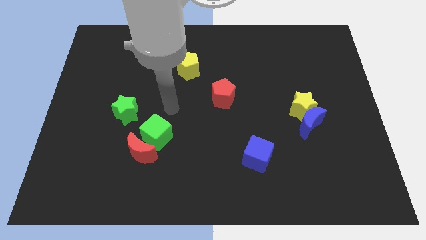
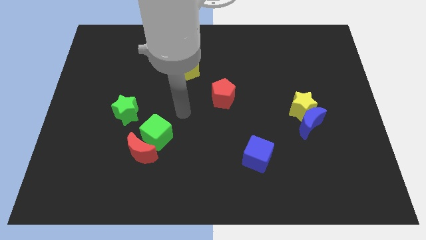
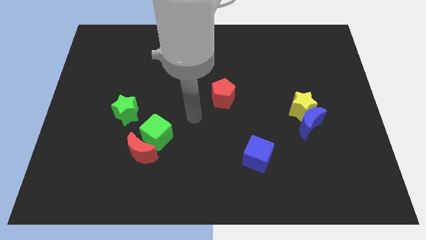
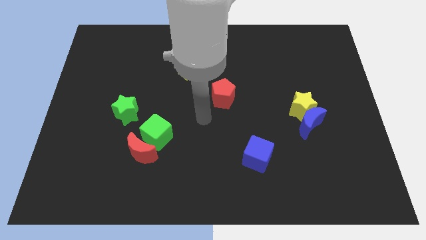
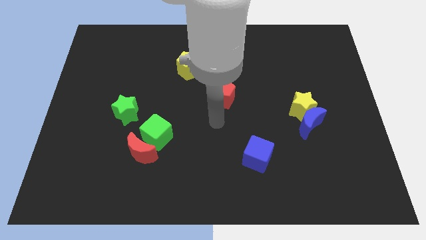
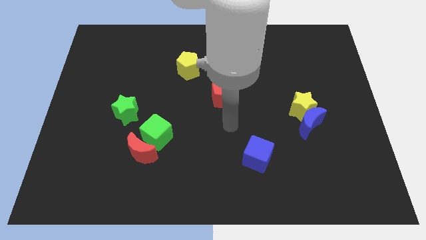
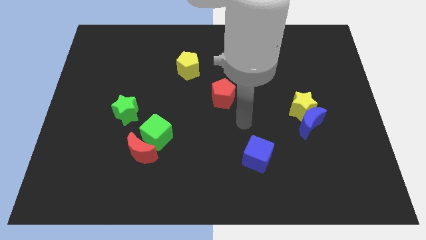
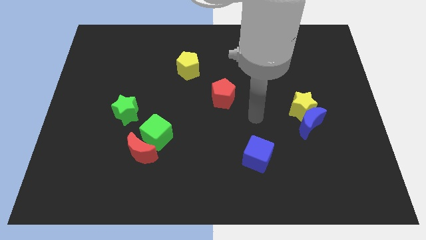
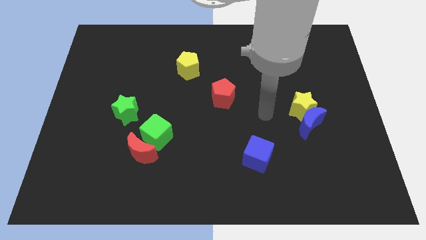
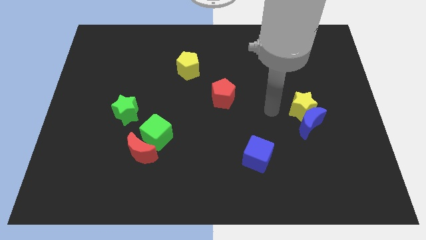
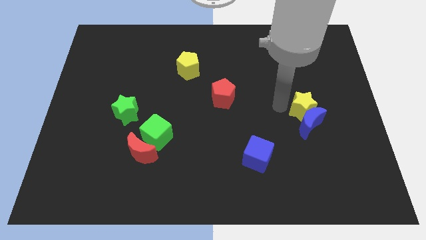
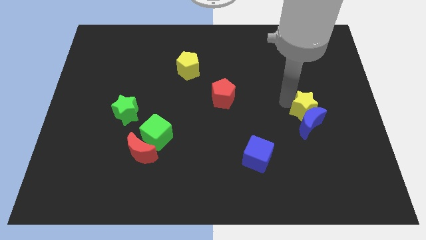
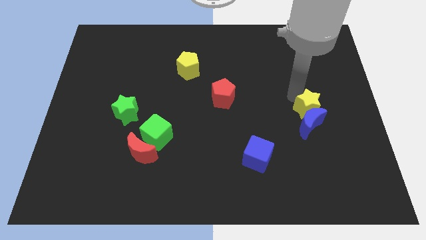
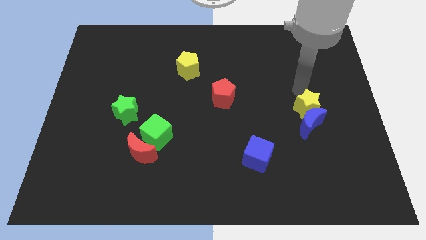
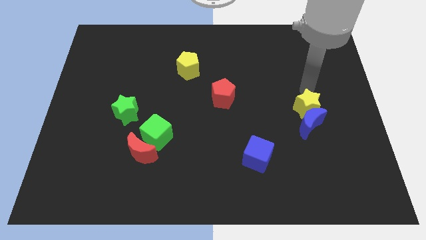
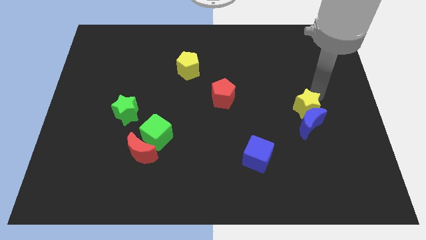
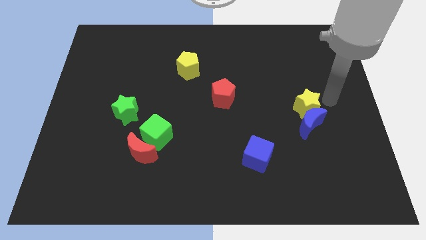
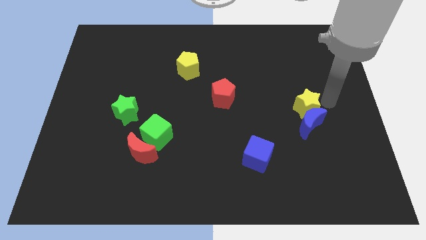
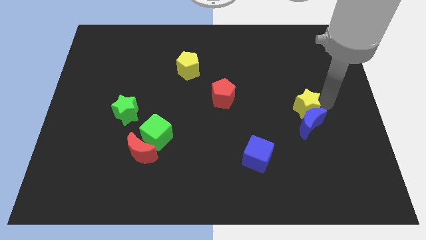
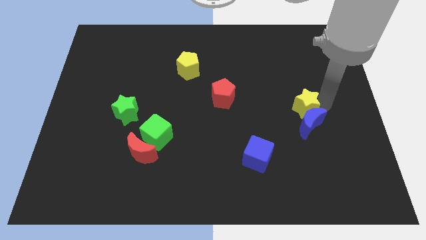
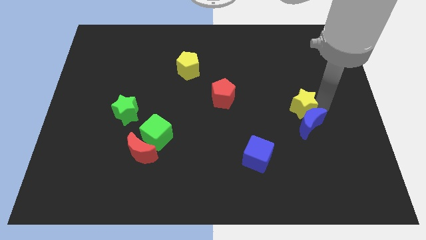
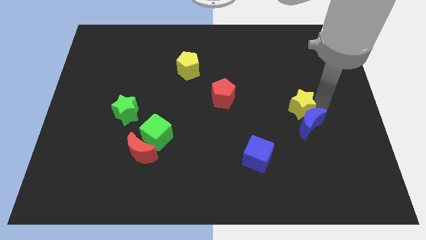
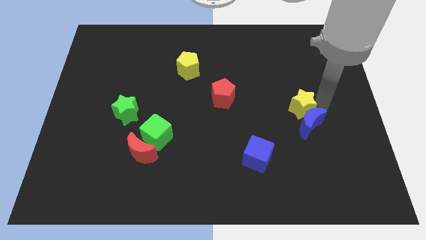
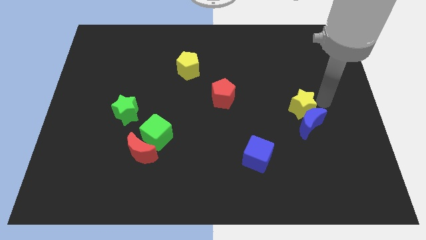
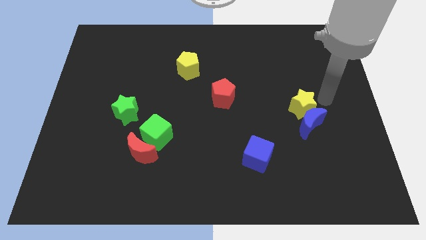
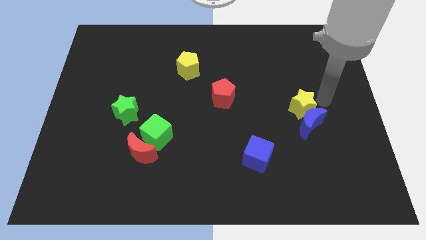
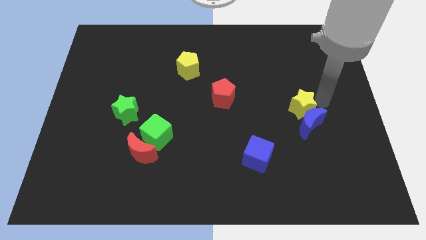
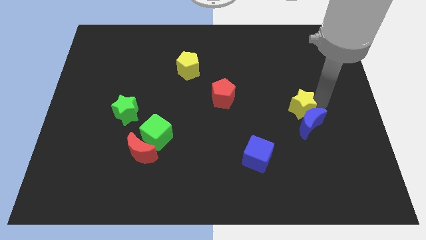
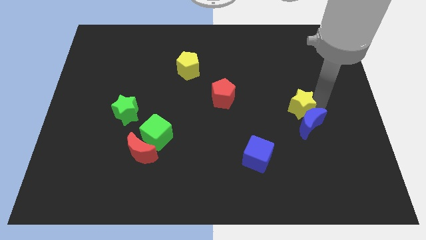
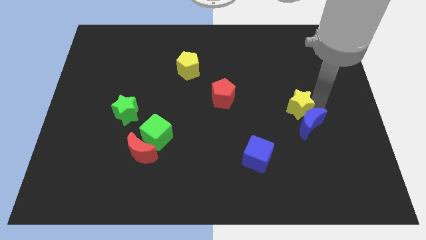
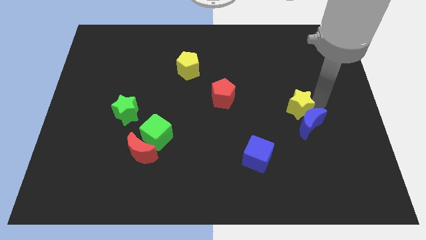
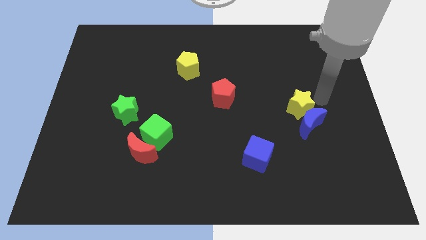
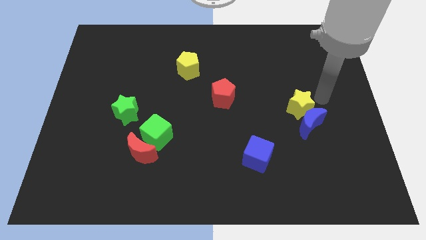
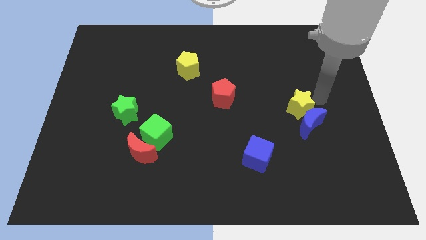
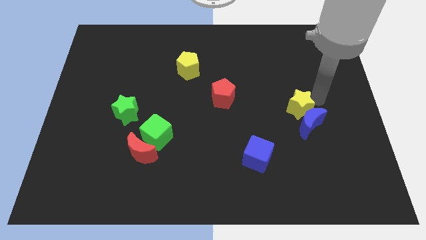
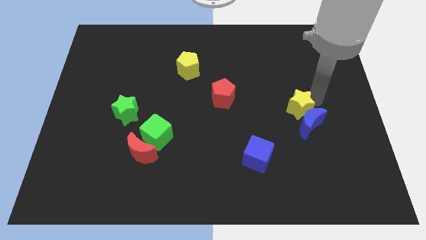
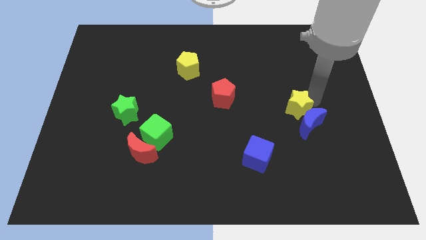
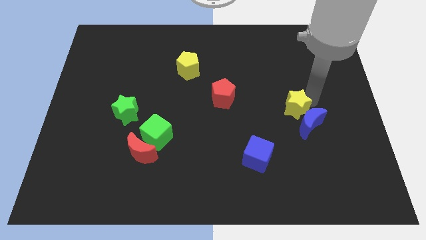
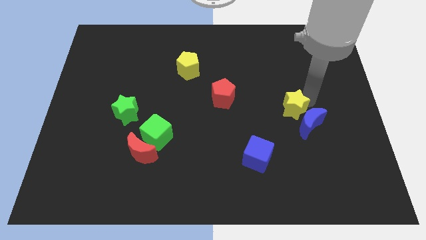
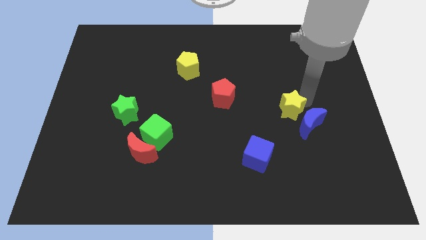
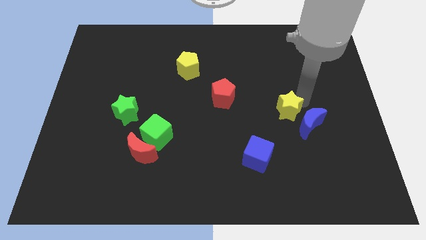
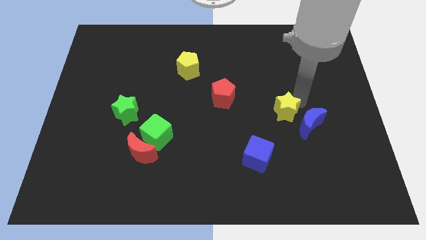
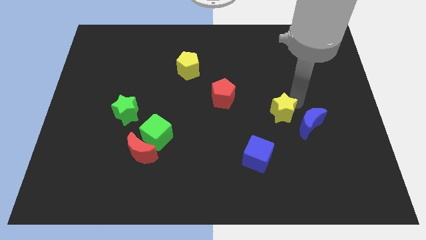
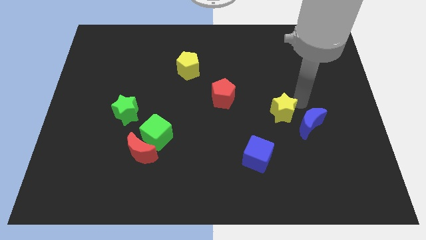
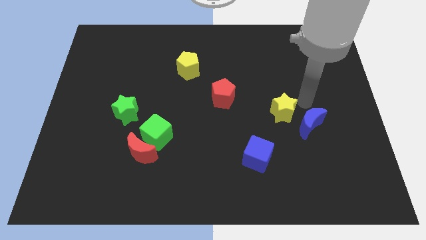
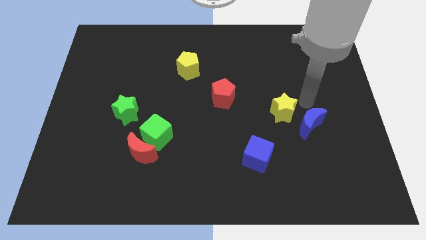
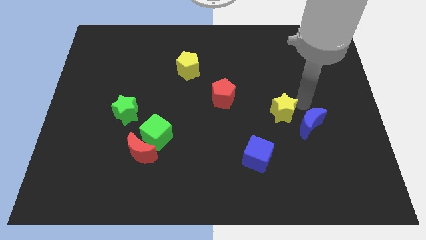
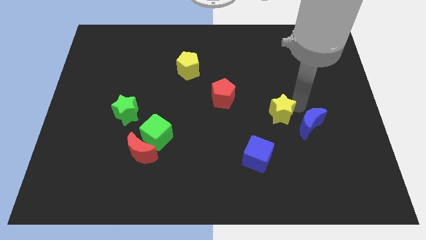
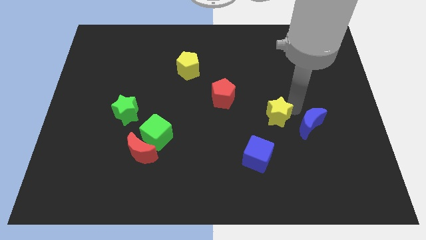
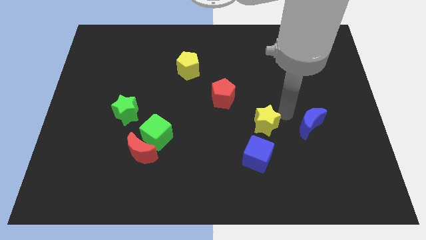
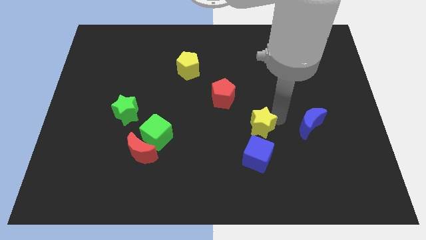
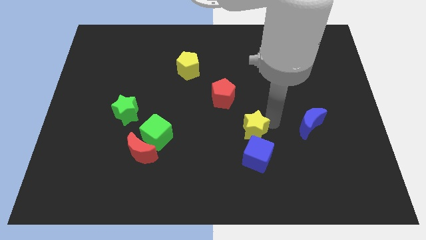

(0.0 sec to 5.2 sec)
slide the yellow star to the top left of the blue cube

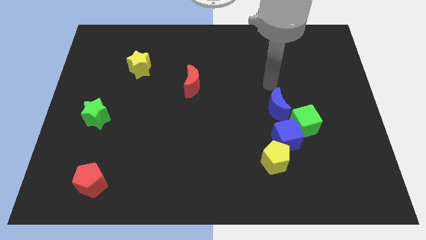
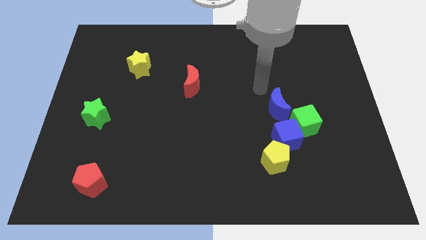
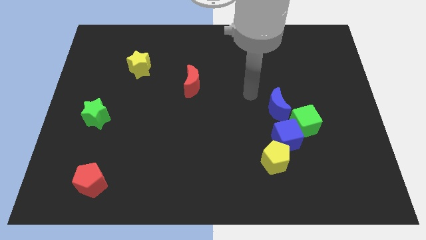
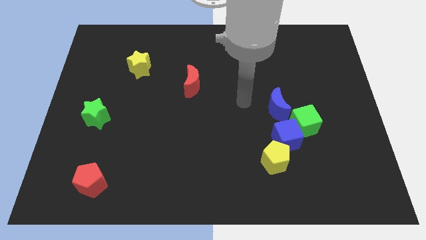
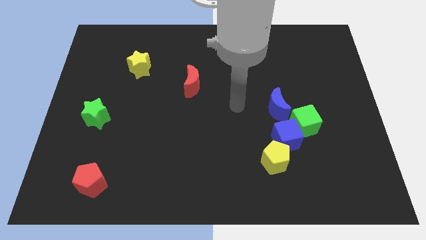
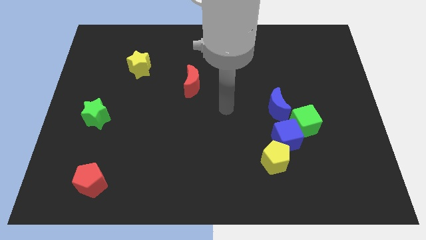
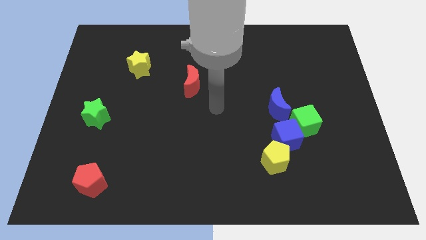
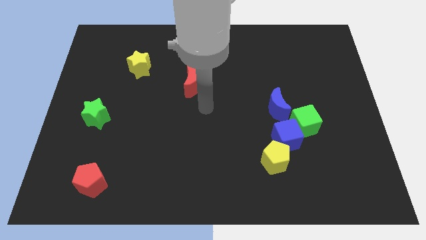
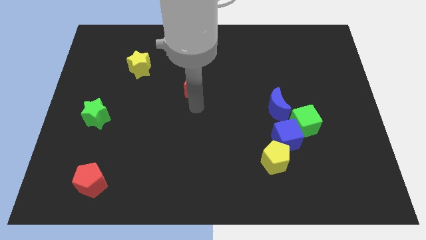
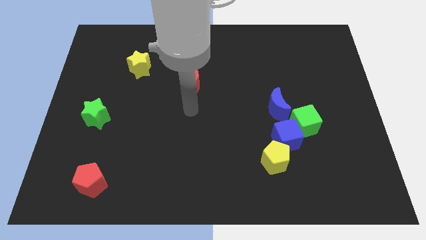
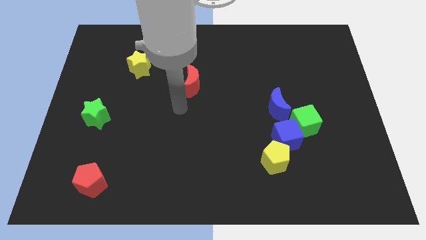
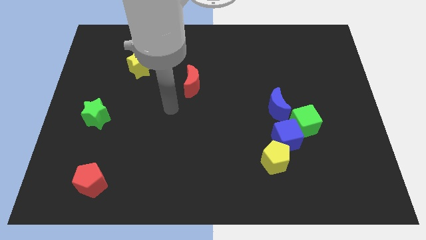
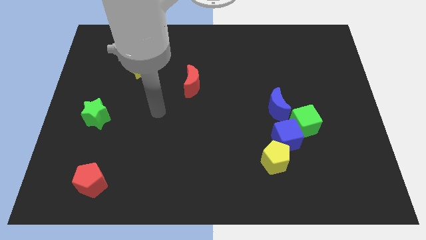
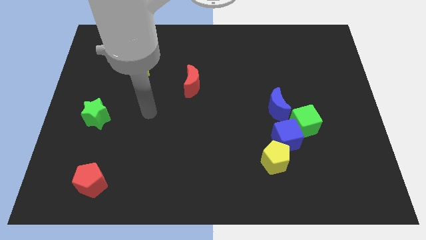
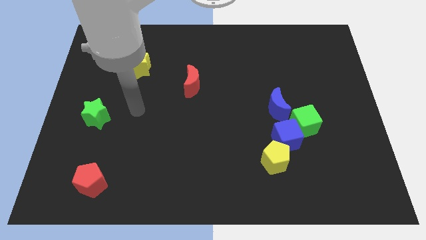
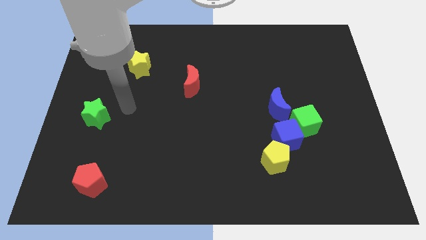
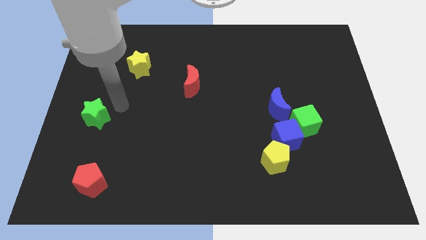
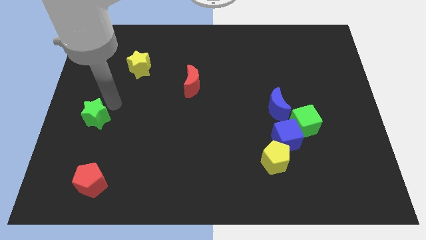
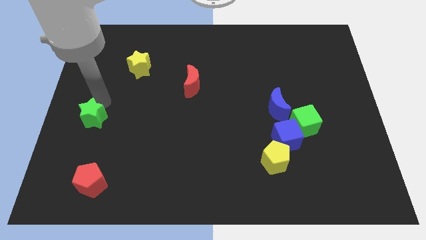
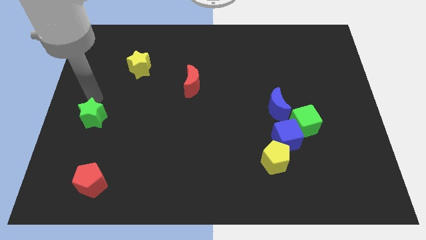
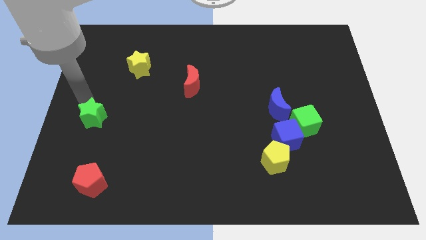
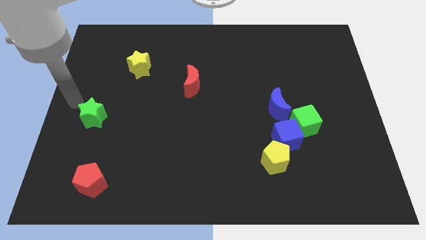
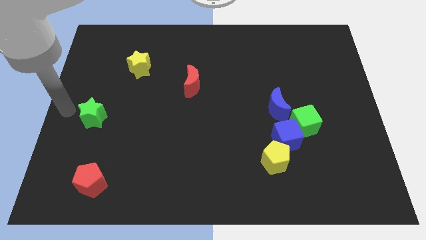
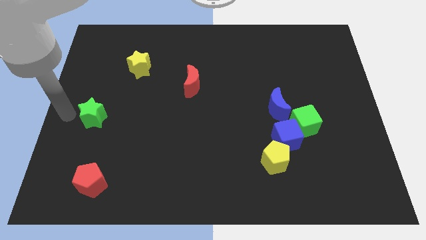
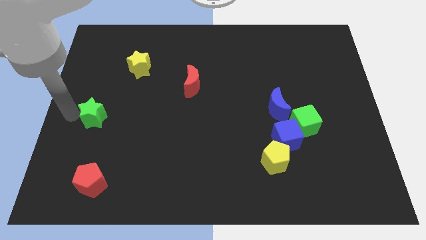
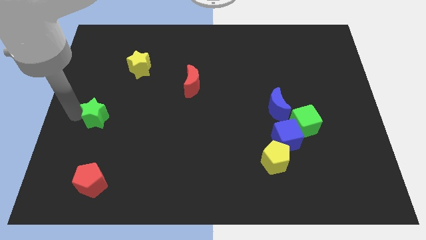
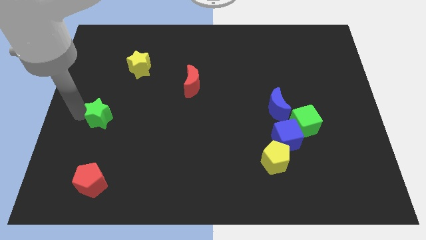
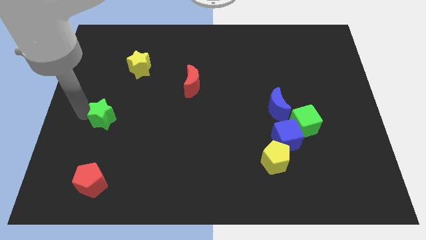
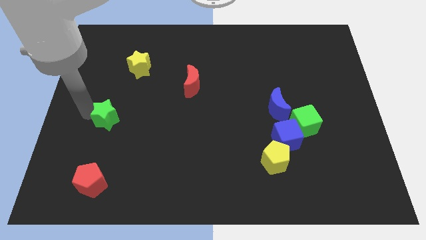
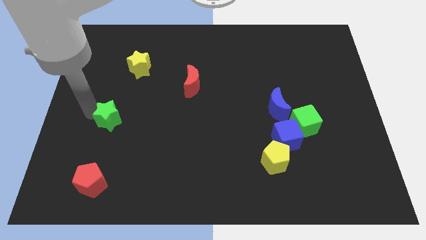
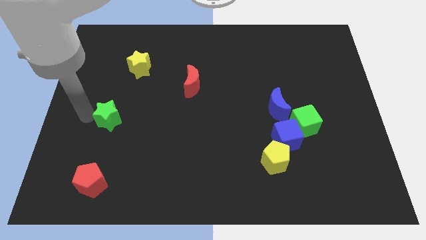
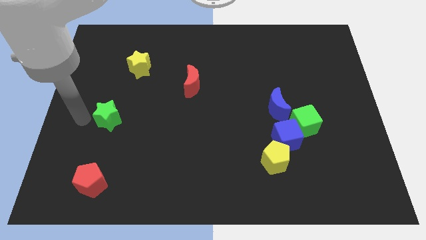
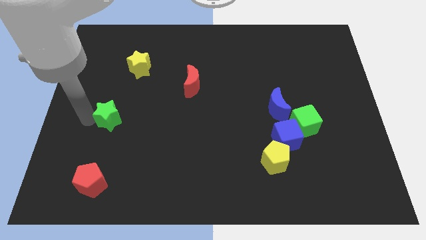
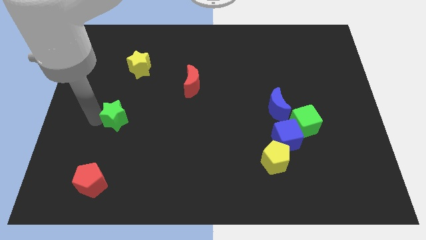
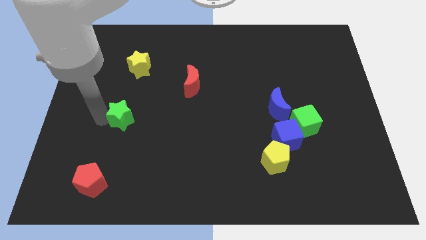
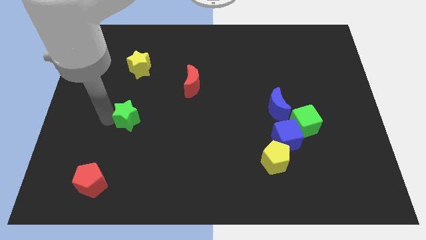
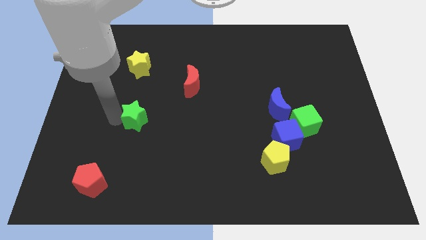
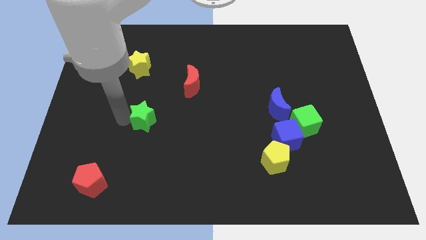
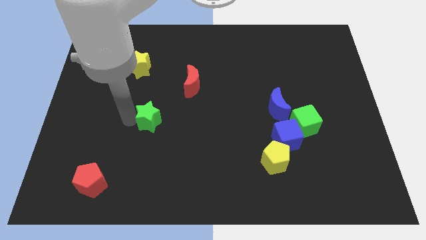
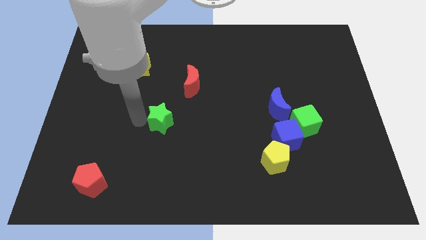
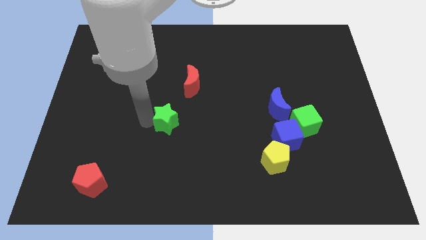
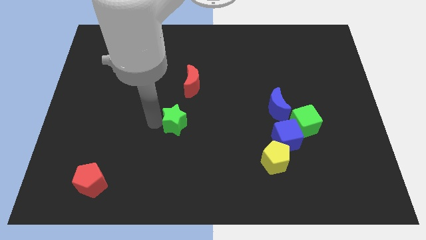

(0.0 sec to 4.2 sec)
slide the green star to the bottom side of the red moon
